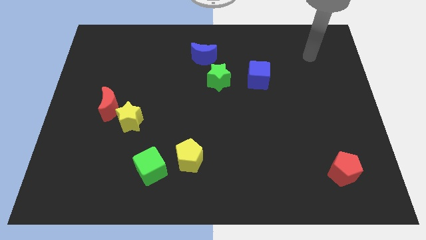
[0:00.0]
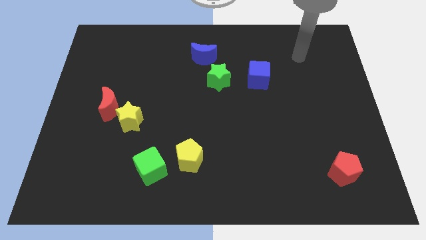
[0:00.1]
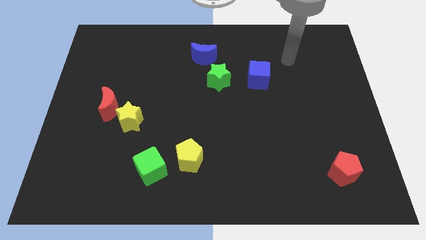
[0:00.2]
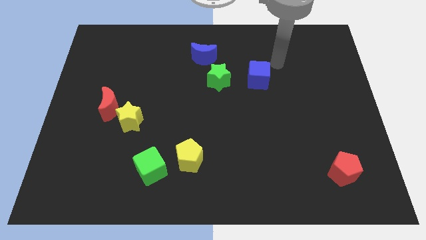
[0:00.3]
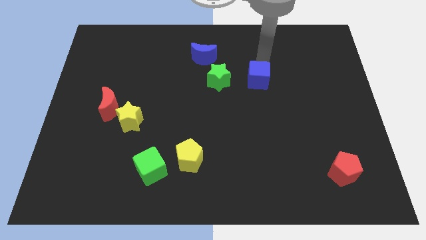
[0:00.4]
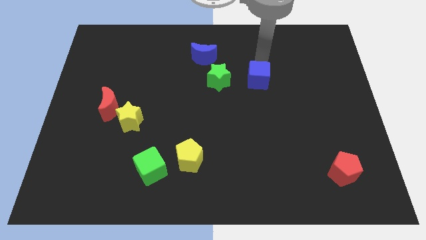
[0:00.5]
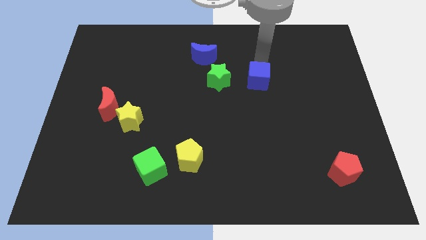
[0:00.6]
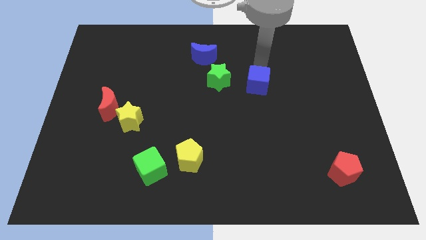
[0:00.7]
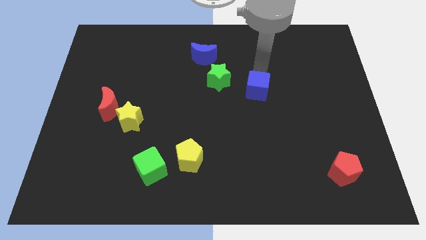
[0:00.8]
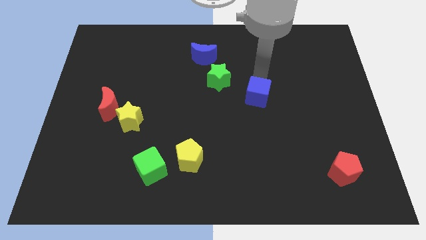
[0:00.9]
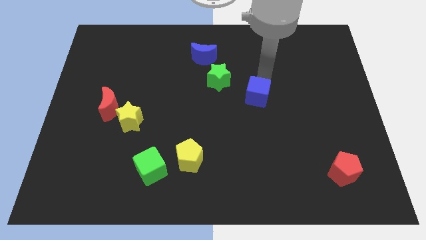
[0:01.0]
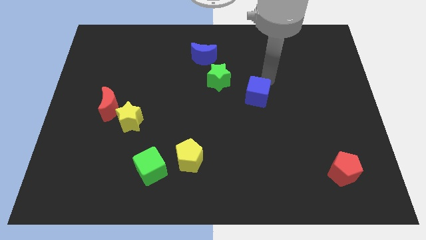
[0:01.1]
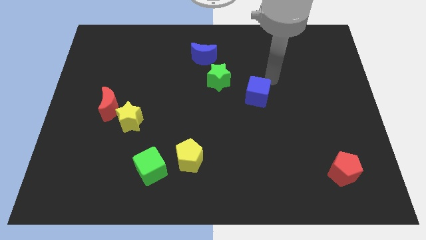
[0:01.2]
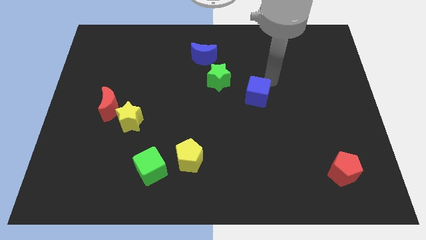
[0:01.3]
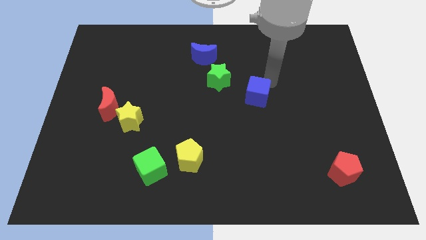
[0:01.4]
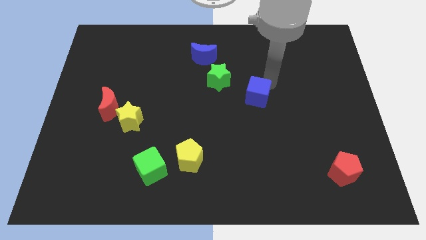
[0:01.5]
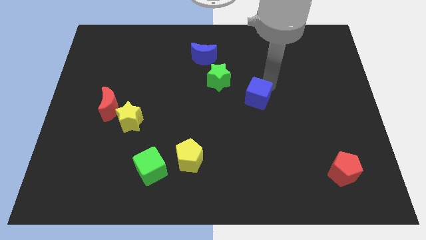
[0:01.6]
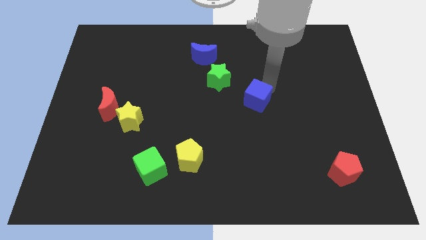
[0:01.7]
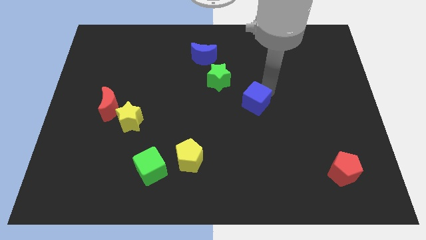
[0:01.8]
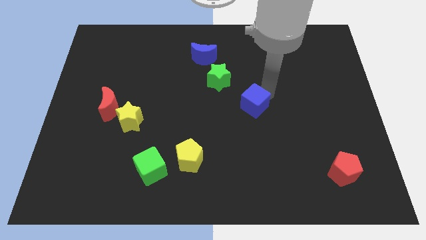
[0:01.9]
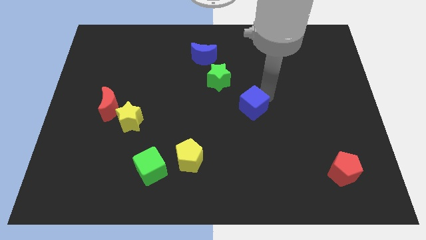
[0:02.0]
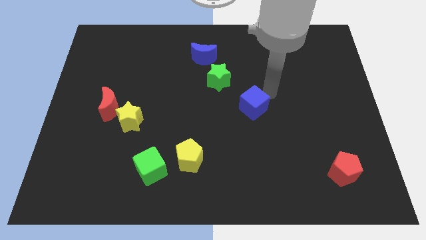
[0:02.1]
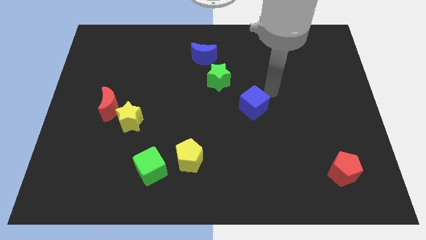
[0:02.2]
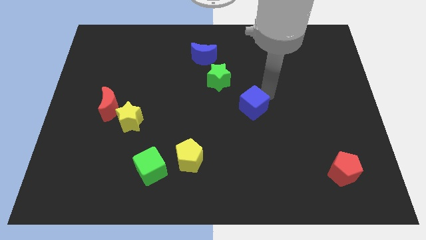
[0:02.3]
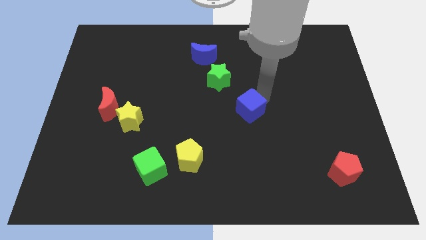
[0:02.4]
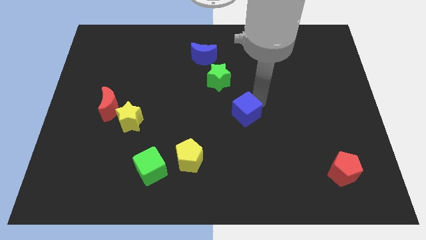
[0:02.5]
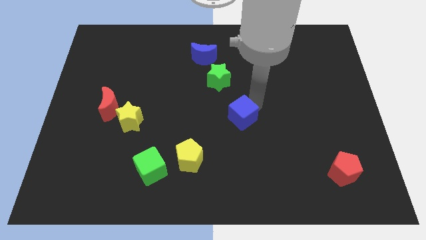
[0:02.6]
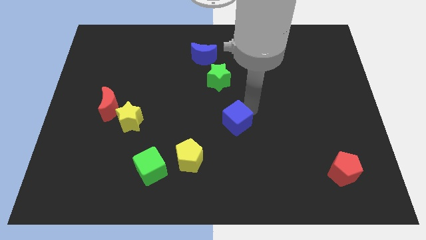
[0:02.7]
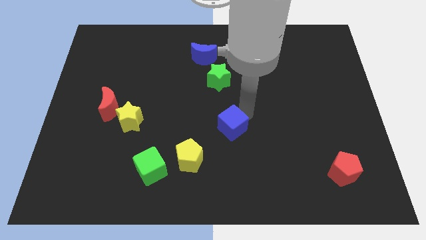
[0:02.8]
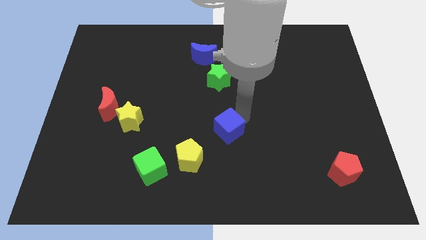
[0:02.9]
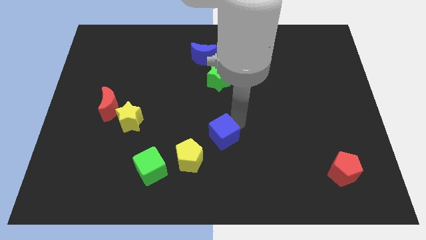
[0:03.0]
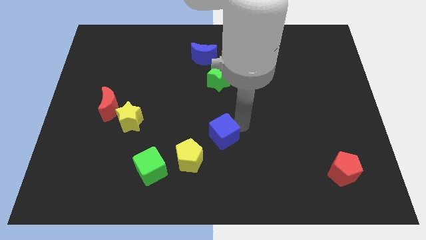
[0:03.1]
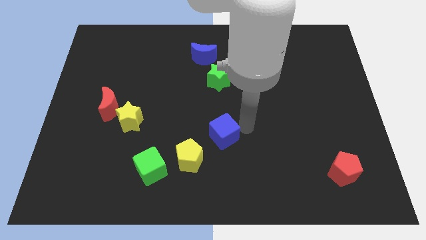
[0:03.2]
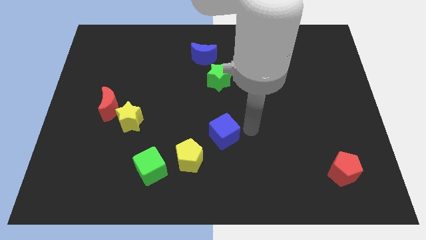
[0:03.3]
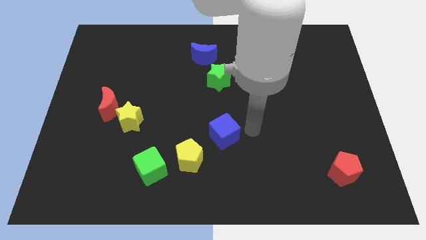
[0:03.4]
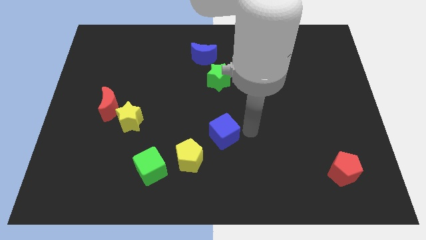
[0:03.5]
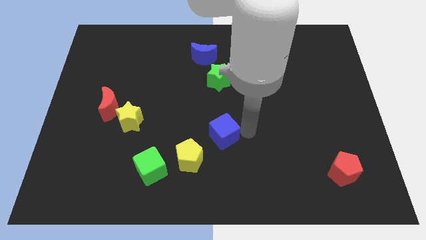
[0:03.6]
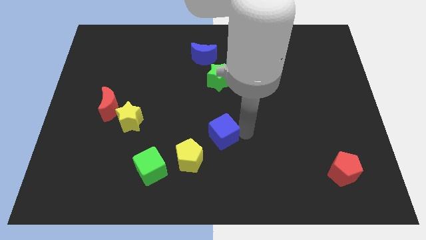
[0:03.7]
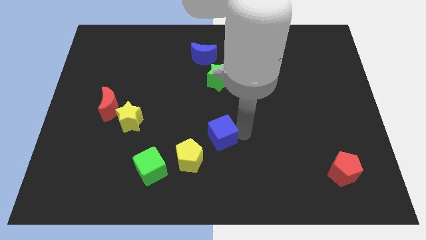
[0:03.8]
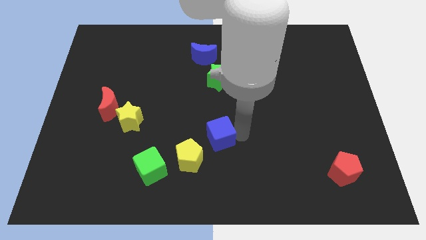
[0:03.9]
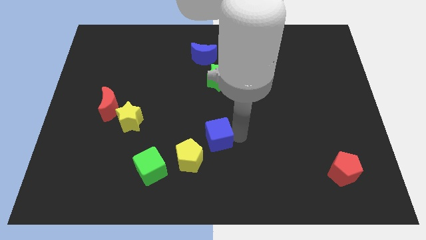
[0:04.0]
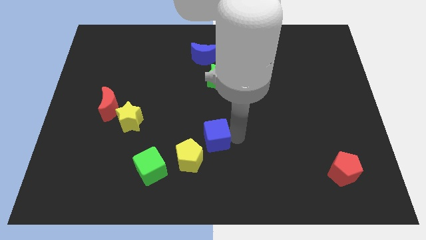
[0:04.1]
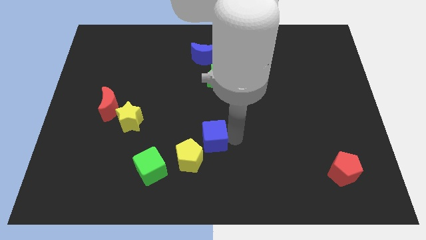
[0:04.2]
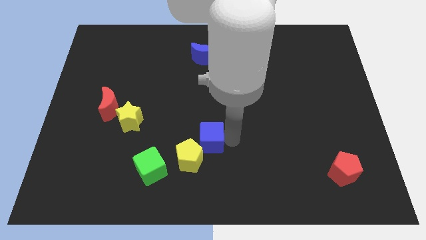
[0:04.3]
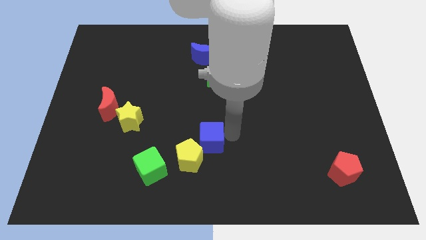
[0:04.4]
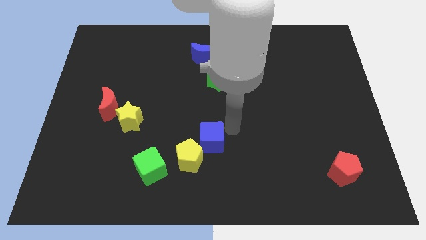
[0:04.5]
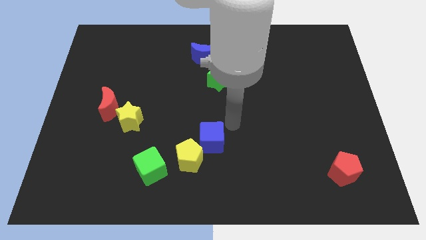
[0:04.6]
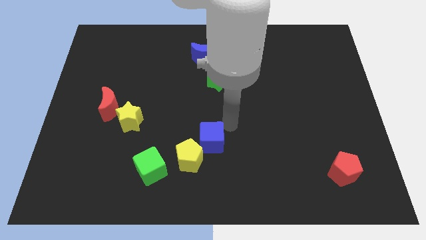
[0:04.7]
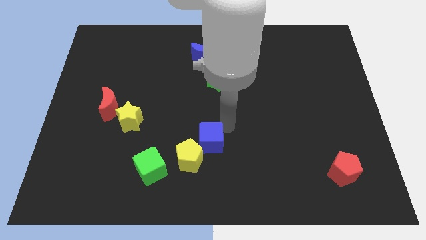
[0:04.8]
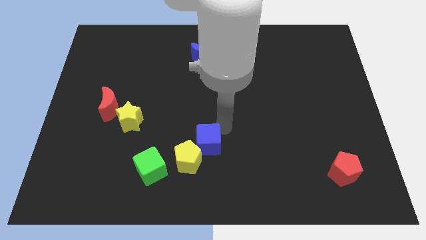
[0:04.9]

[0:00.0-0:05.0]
put the blue cube close to the yellow pentagon

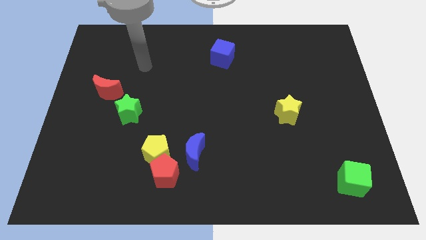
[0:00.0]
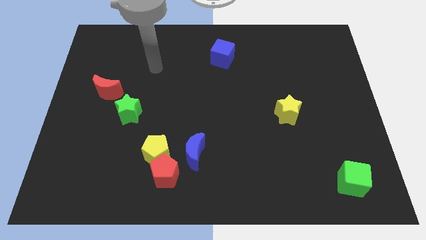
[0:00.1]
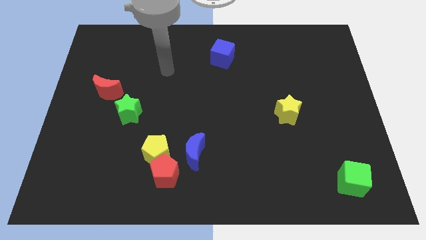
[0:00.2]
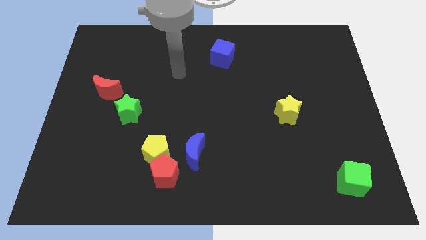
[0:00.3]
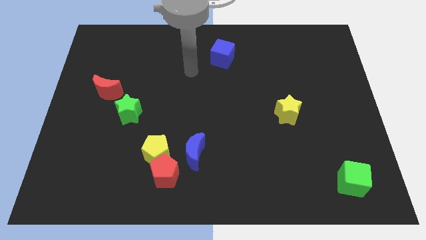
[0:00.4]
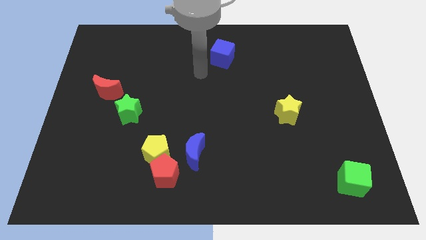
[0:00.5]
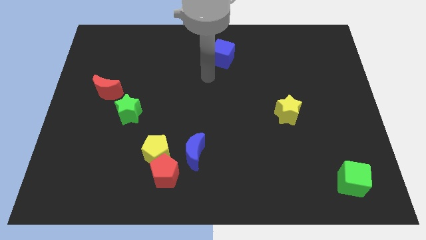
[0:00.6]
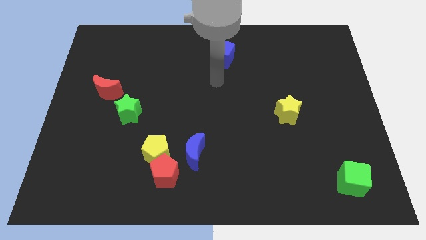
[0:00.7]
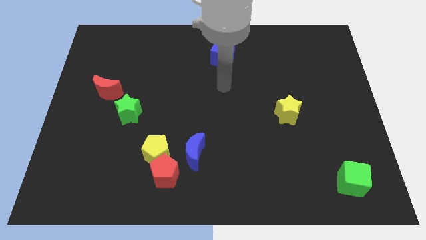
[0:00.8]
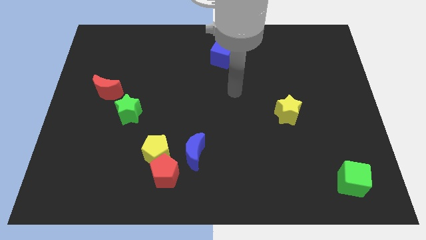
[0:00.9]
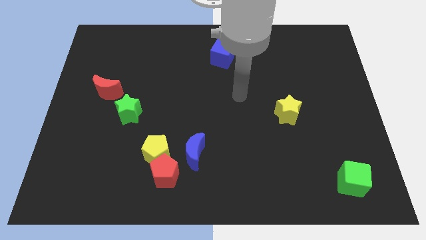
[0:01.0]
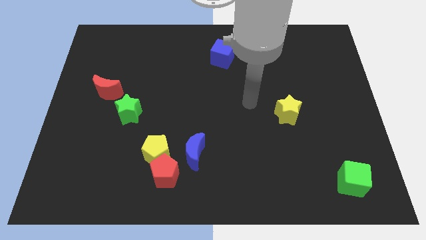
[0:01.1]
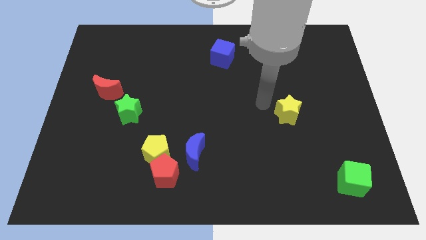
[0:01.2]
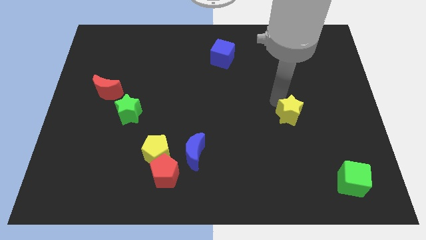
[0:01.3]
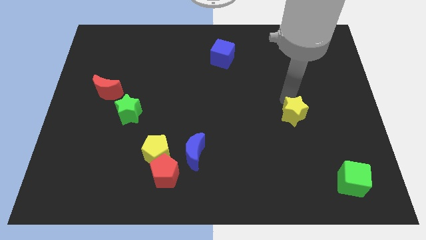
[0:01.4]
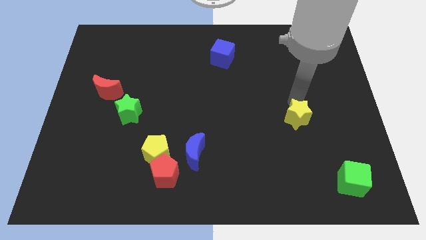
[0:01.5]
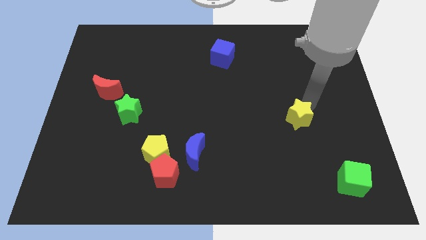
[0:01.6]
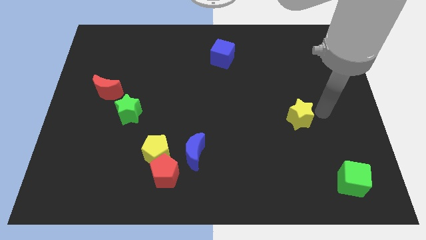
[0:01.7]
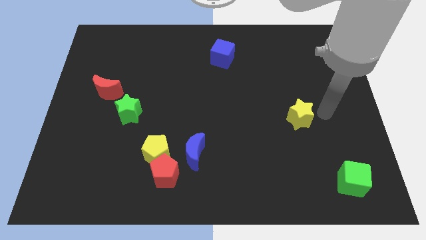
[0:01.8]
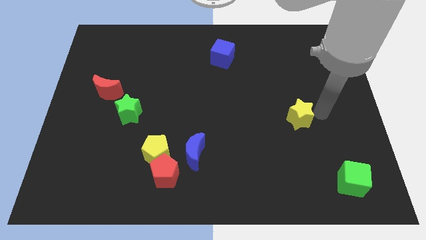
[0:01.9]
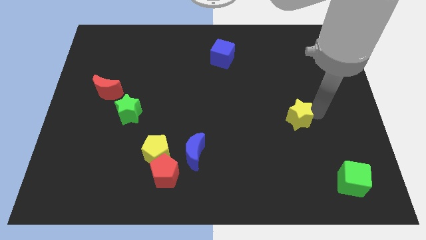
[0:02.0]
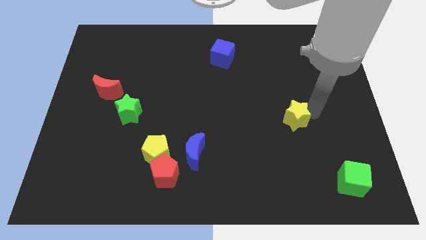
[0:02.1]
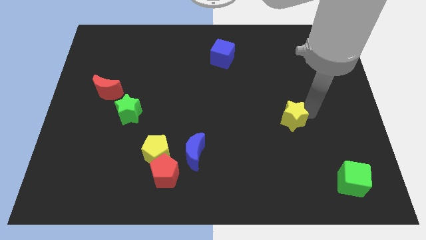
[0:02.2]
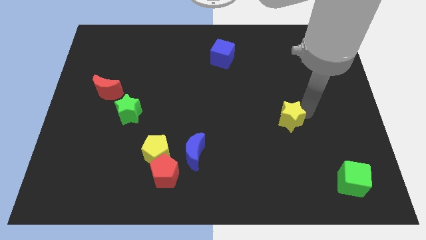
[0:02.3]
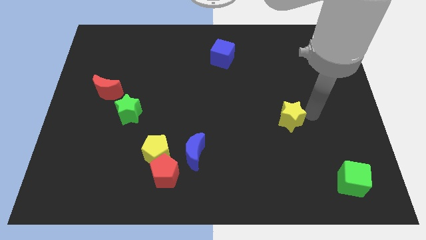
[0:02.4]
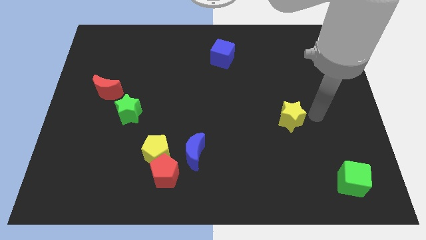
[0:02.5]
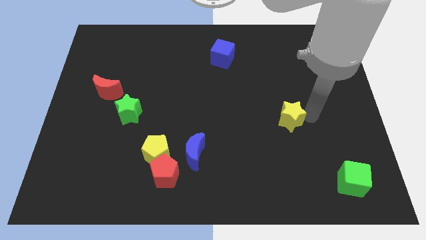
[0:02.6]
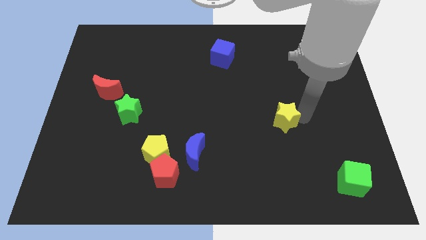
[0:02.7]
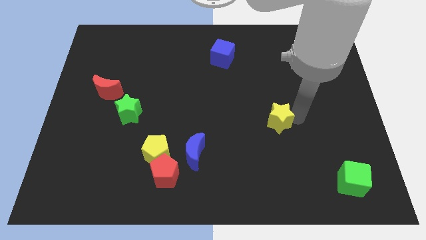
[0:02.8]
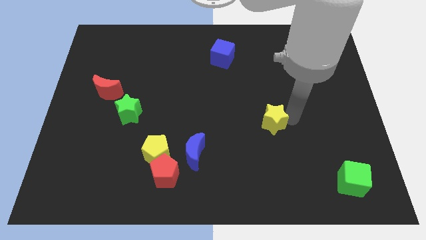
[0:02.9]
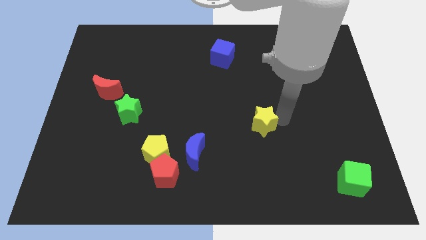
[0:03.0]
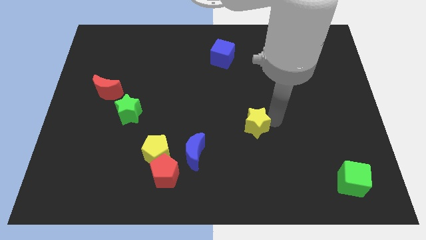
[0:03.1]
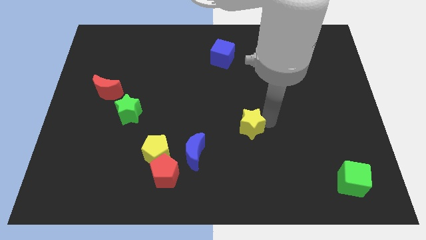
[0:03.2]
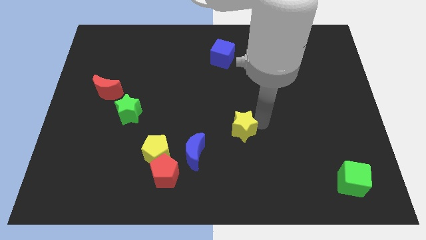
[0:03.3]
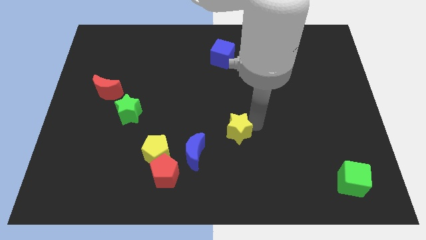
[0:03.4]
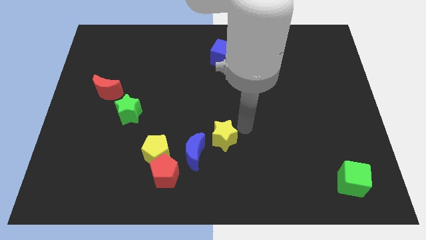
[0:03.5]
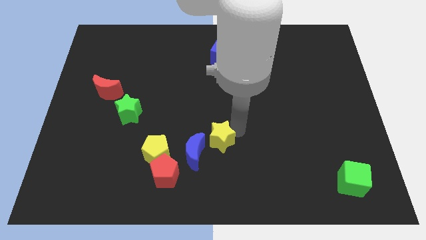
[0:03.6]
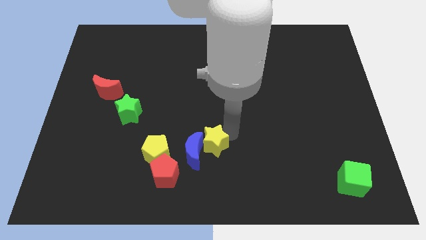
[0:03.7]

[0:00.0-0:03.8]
move the yellow star close to the blue moon
